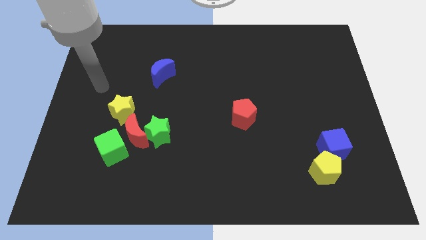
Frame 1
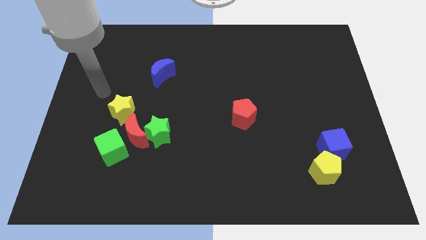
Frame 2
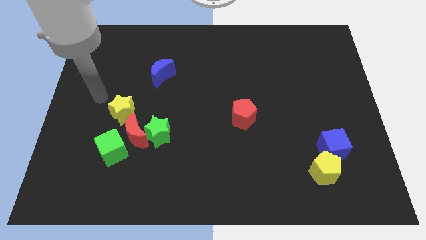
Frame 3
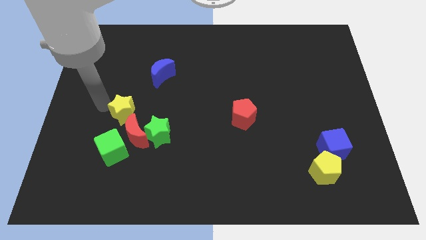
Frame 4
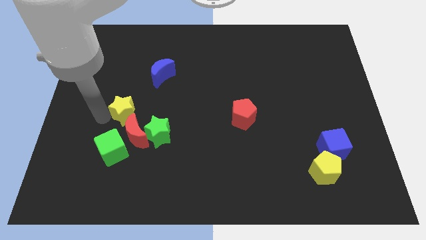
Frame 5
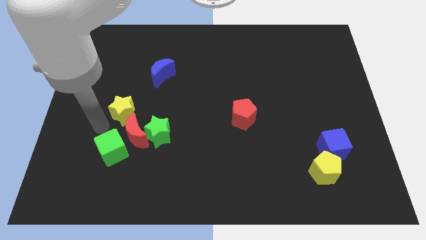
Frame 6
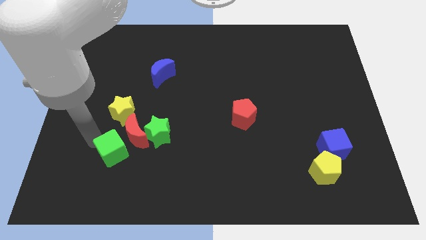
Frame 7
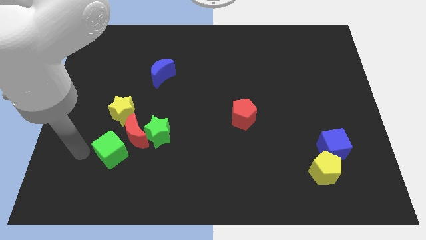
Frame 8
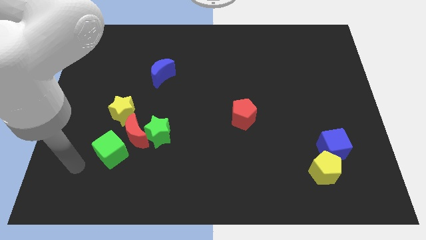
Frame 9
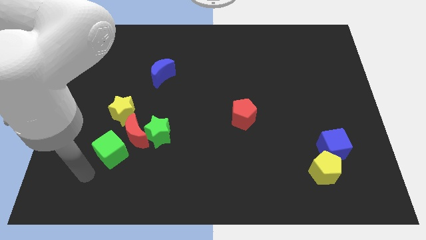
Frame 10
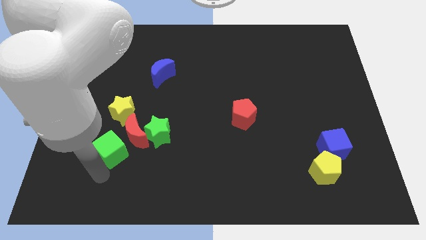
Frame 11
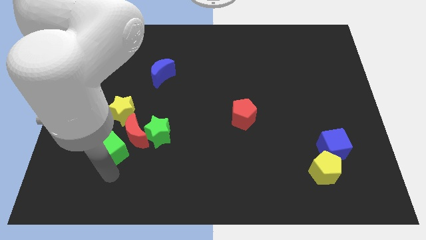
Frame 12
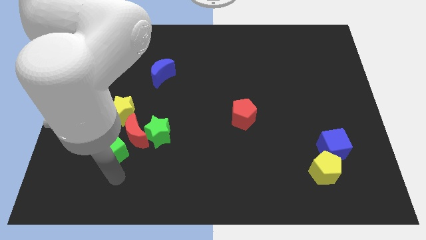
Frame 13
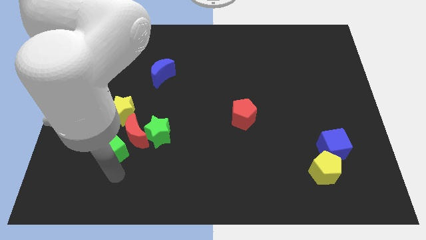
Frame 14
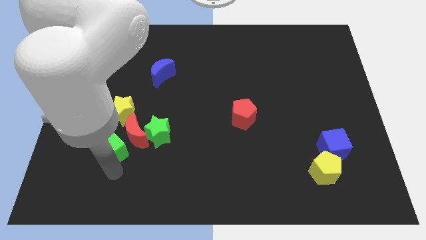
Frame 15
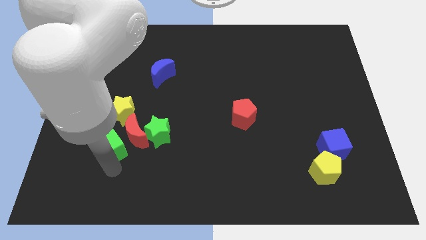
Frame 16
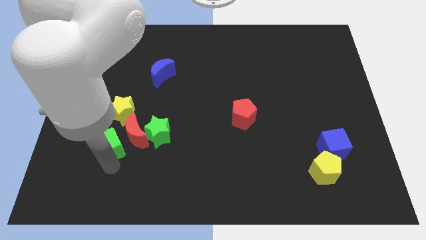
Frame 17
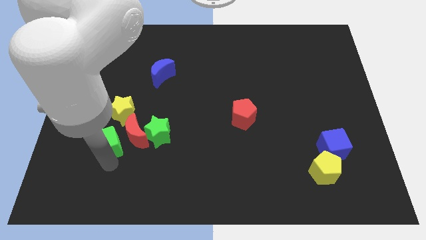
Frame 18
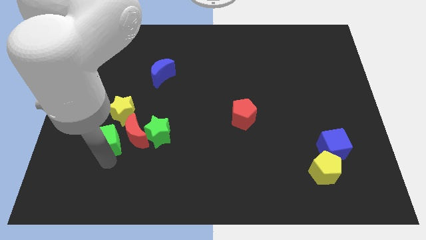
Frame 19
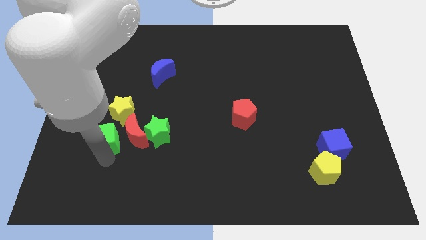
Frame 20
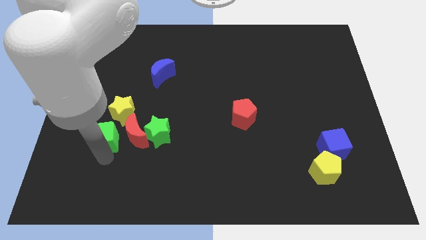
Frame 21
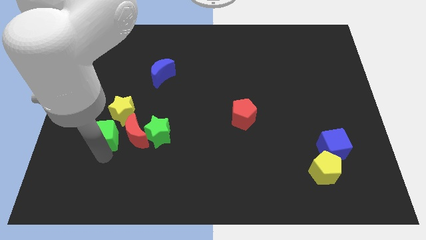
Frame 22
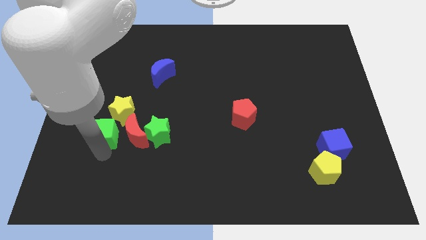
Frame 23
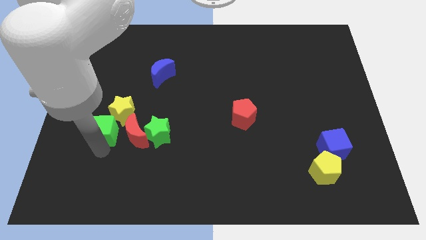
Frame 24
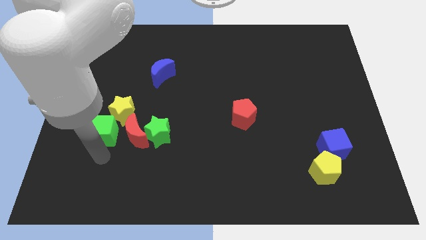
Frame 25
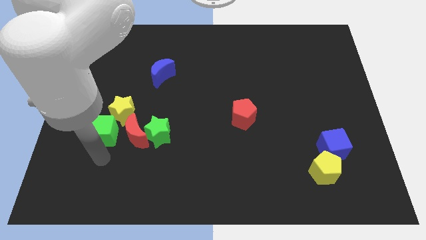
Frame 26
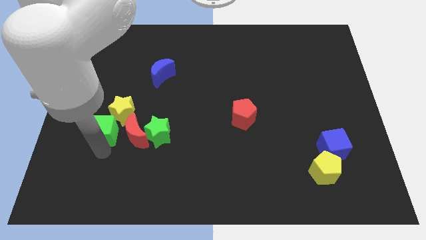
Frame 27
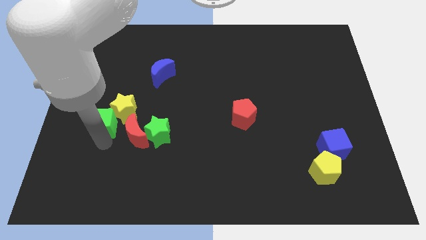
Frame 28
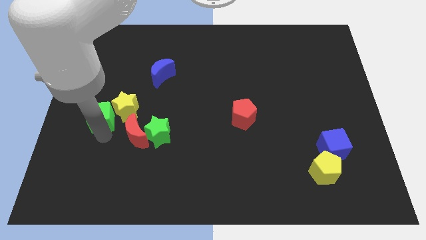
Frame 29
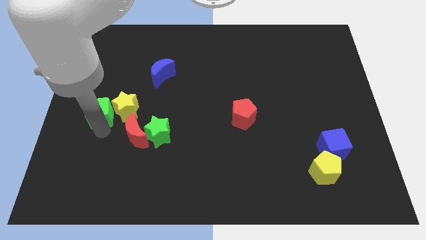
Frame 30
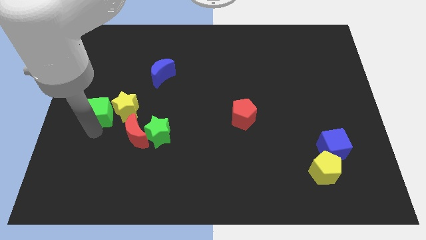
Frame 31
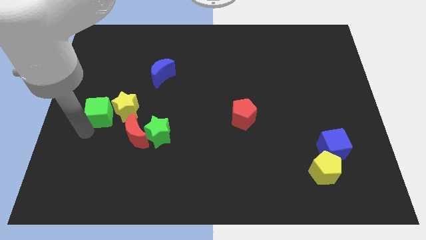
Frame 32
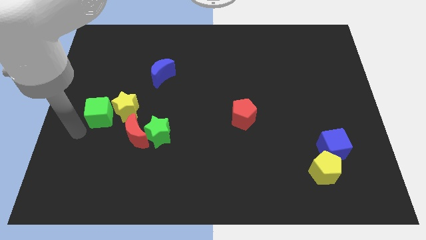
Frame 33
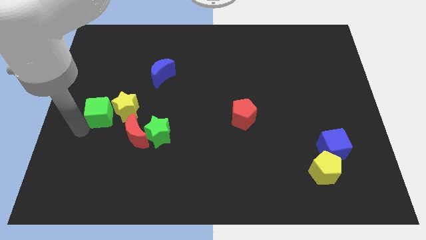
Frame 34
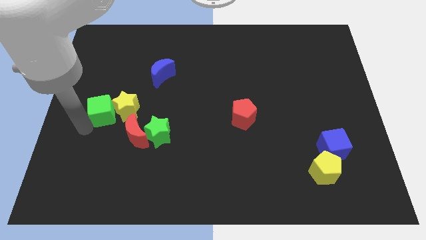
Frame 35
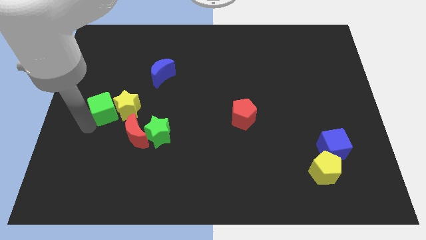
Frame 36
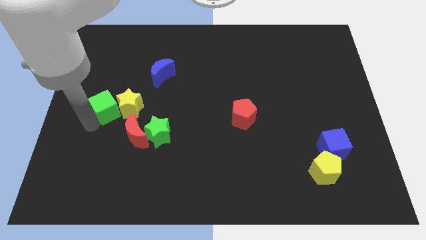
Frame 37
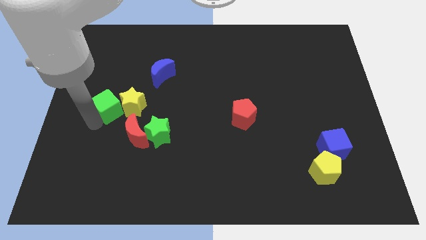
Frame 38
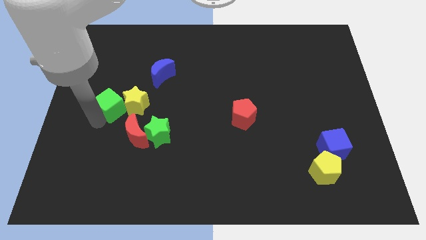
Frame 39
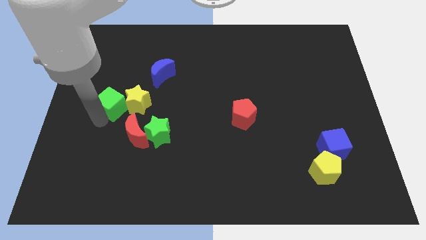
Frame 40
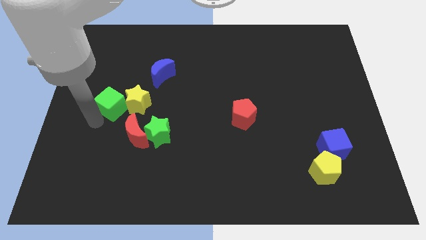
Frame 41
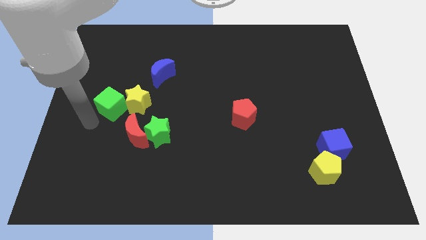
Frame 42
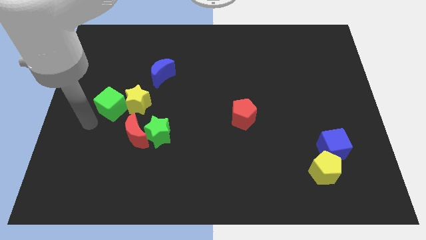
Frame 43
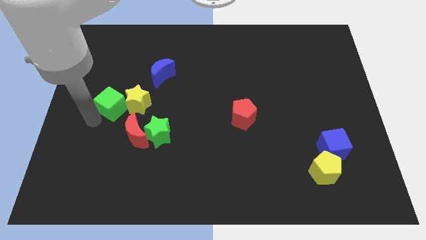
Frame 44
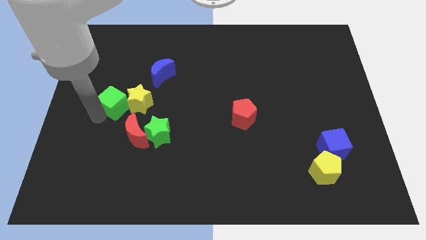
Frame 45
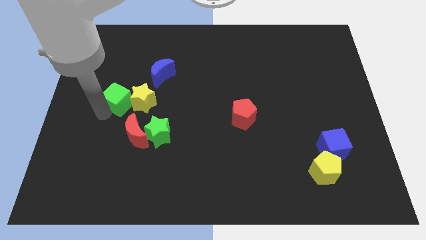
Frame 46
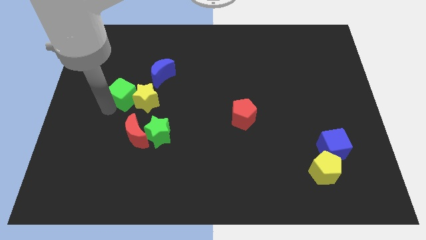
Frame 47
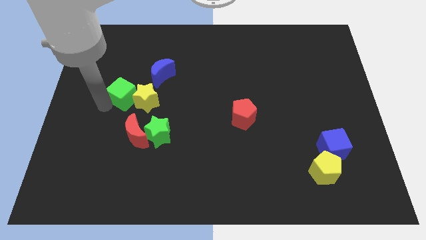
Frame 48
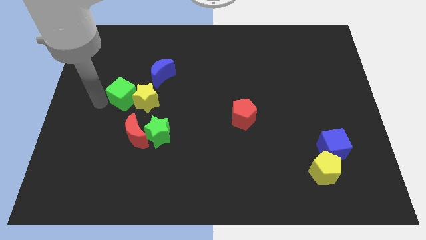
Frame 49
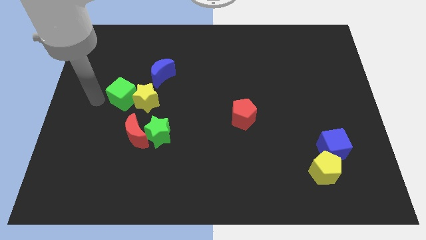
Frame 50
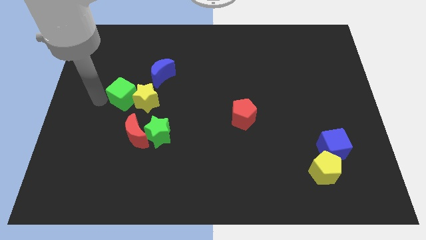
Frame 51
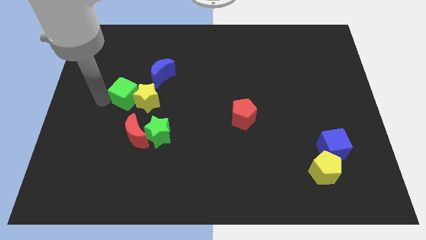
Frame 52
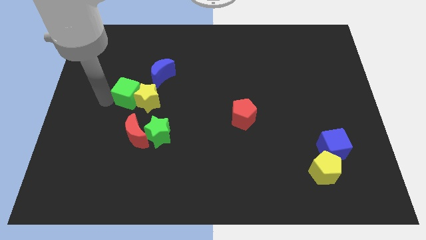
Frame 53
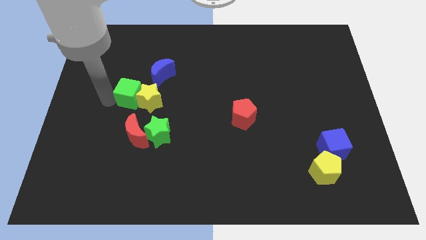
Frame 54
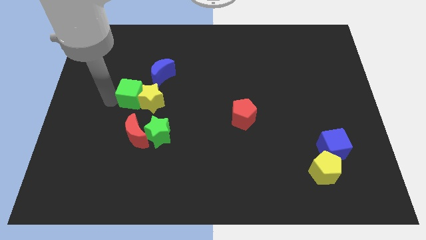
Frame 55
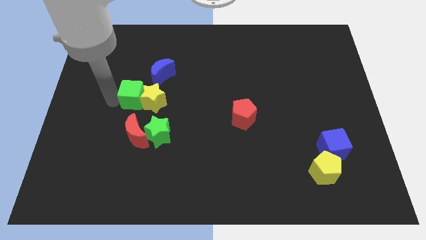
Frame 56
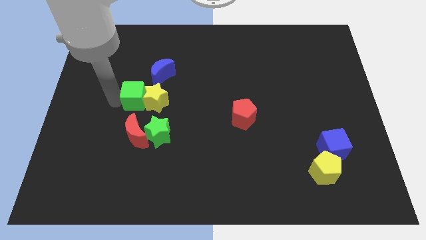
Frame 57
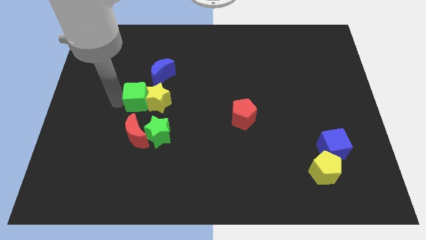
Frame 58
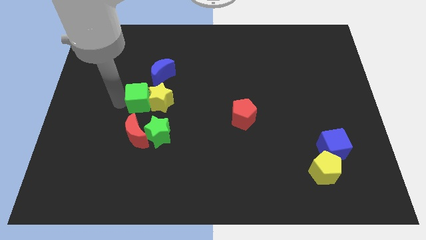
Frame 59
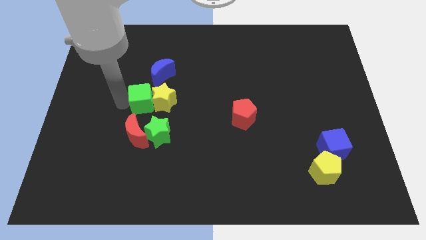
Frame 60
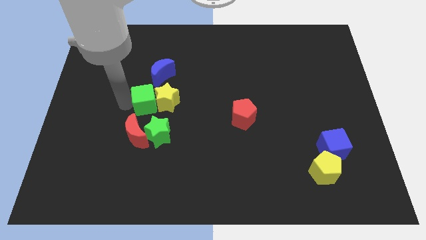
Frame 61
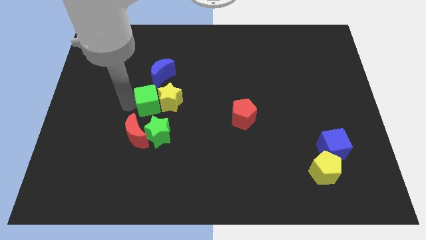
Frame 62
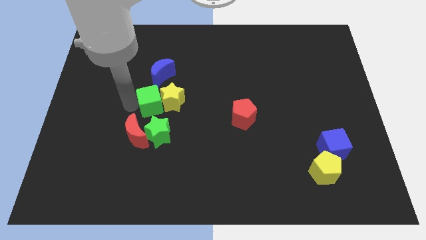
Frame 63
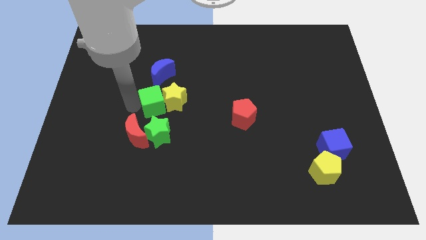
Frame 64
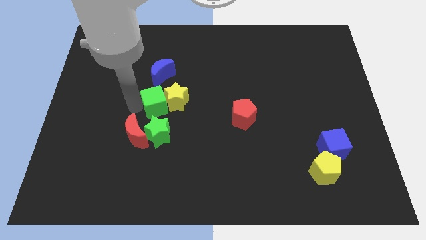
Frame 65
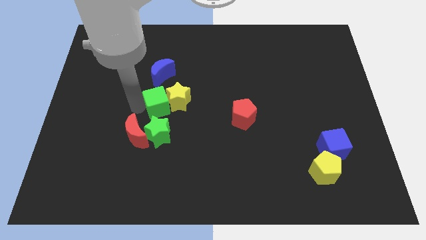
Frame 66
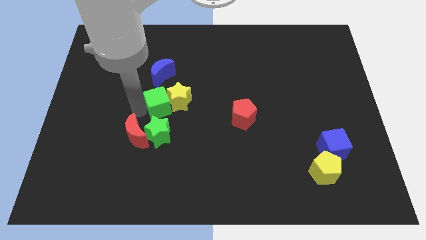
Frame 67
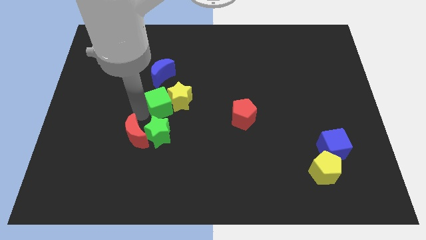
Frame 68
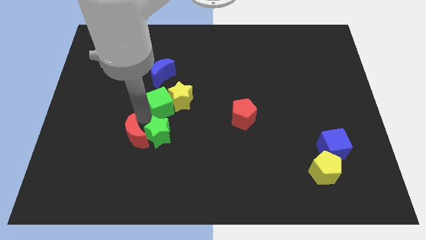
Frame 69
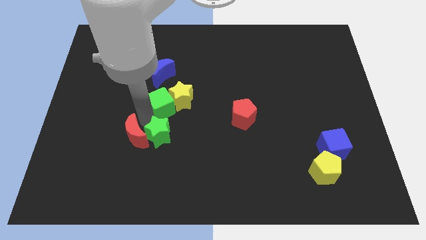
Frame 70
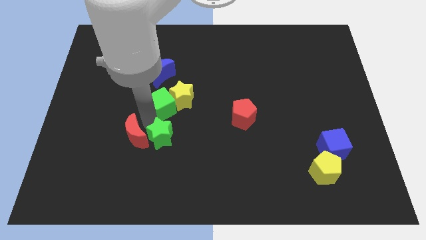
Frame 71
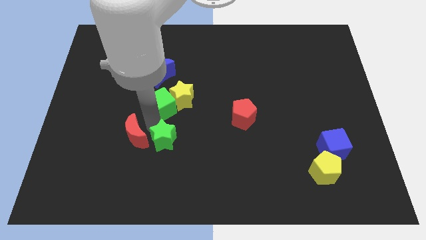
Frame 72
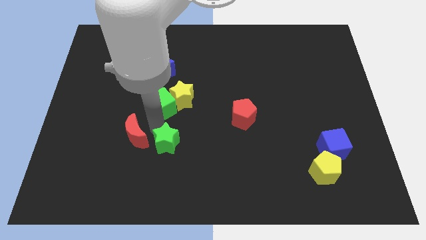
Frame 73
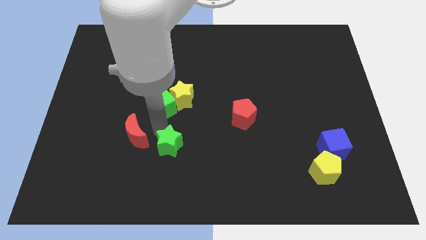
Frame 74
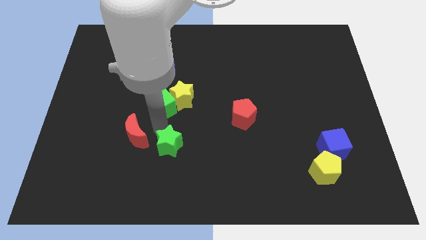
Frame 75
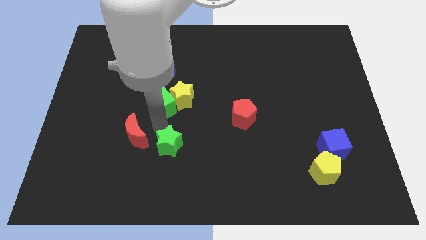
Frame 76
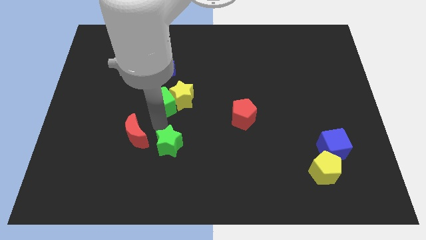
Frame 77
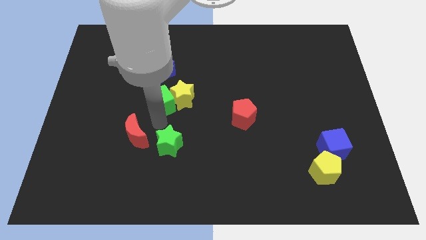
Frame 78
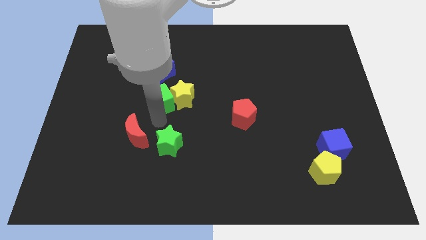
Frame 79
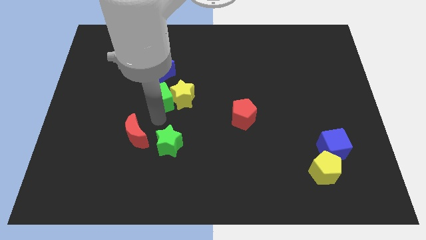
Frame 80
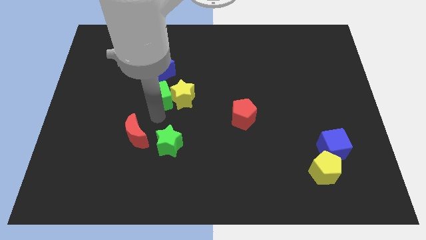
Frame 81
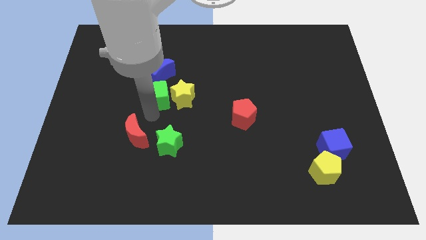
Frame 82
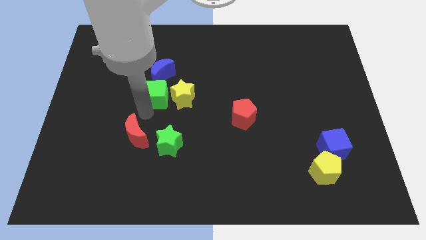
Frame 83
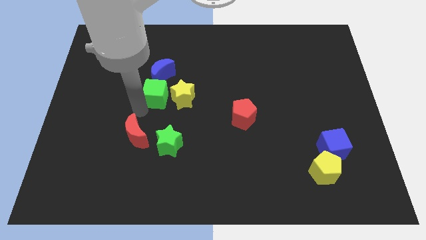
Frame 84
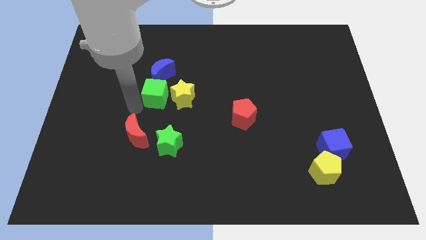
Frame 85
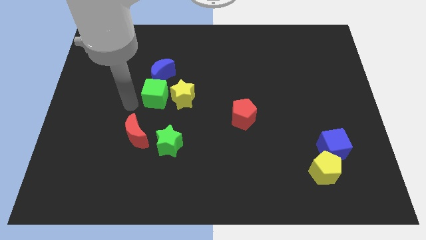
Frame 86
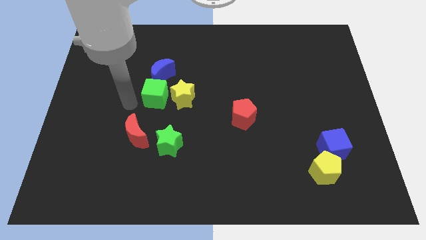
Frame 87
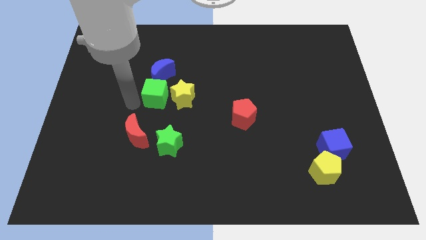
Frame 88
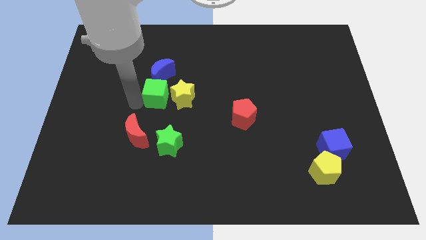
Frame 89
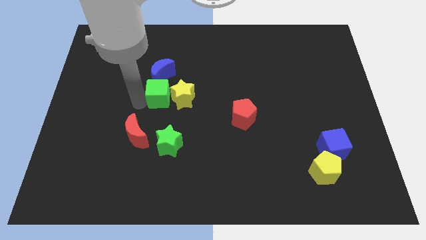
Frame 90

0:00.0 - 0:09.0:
put the green cube to the bottom right of the blue moon
